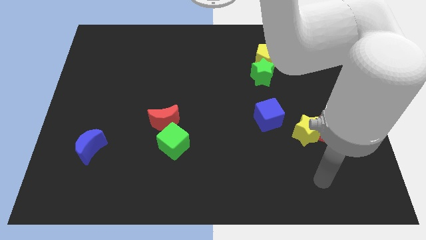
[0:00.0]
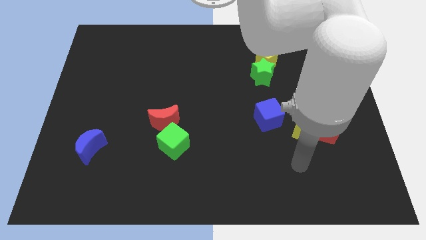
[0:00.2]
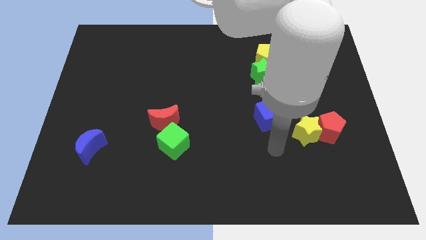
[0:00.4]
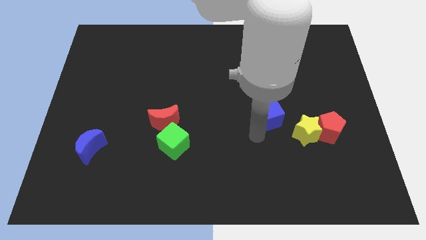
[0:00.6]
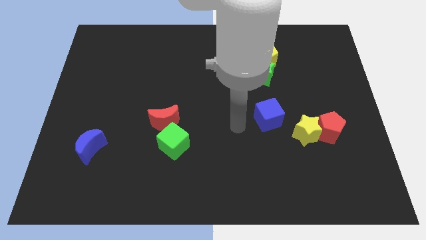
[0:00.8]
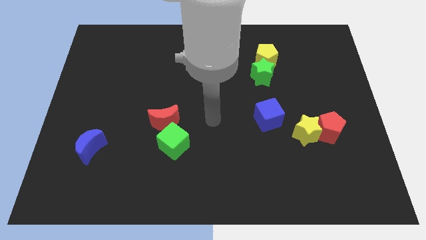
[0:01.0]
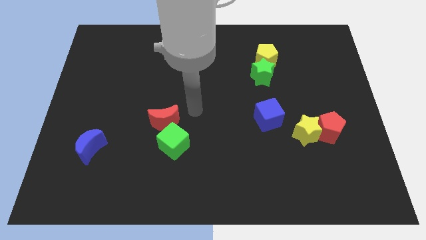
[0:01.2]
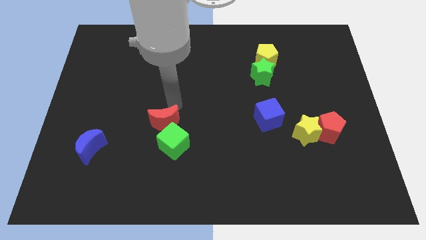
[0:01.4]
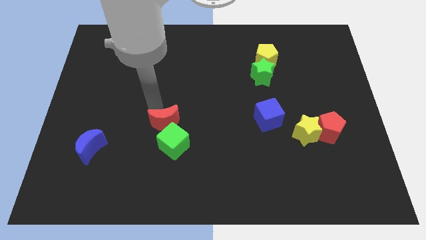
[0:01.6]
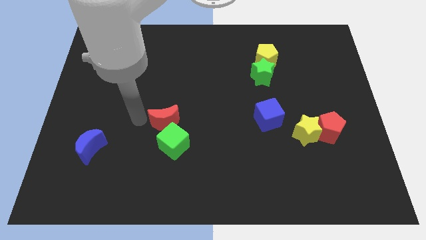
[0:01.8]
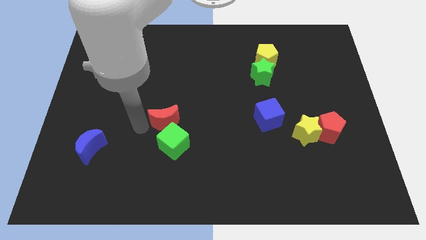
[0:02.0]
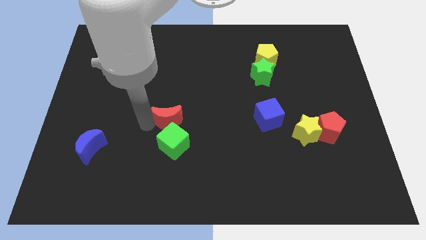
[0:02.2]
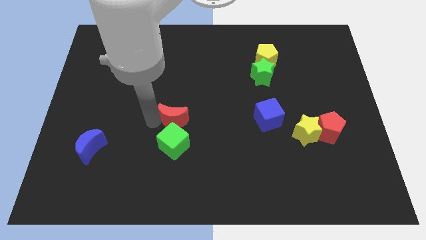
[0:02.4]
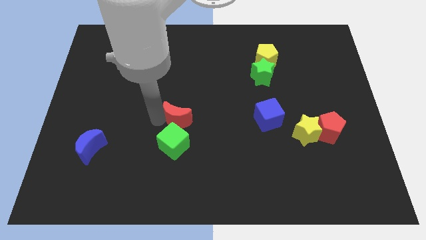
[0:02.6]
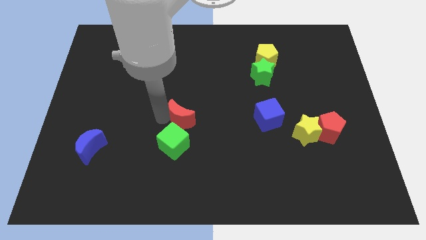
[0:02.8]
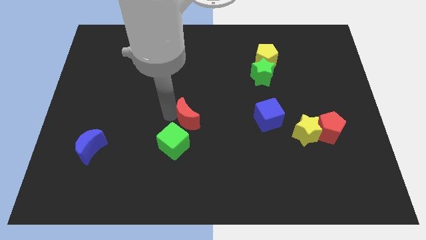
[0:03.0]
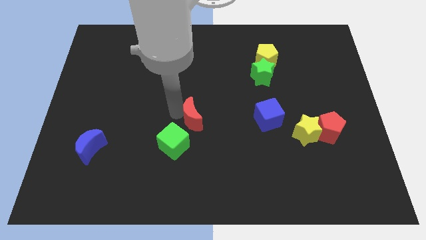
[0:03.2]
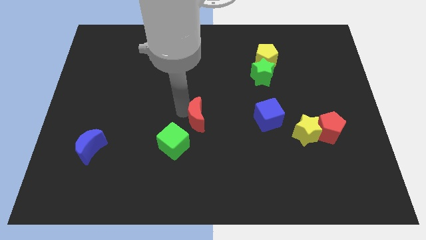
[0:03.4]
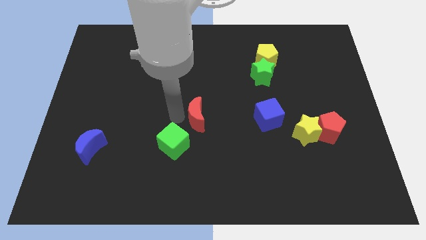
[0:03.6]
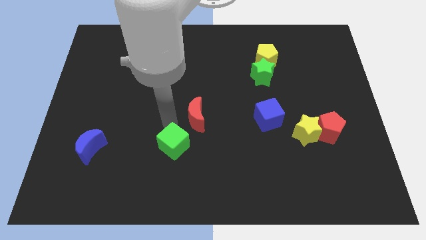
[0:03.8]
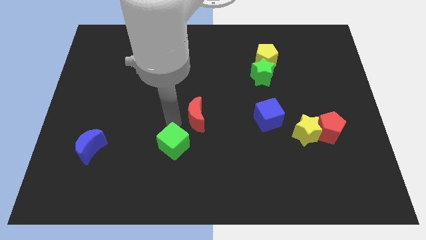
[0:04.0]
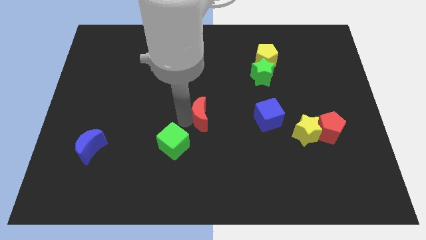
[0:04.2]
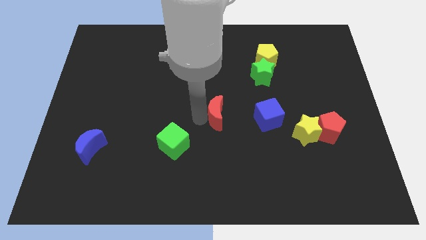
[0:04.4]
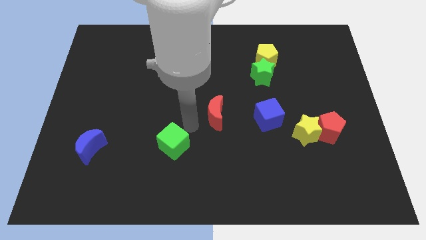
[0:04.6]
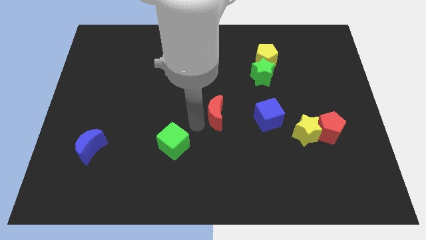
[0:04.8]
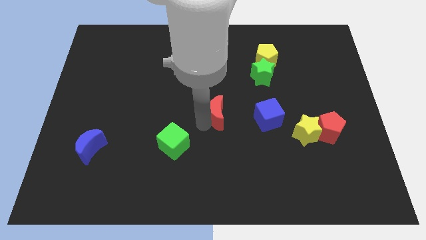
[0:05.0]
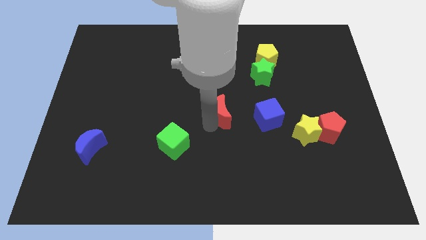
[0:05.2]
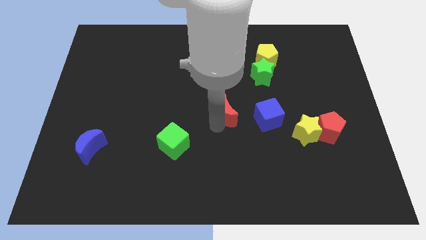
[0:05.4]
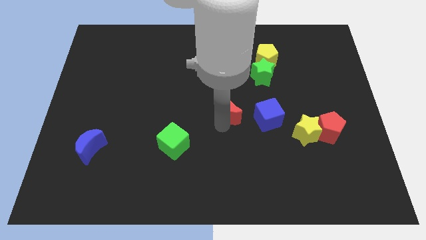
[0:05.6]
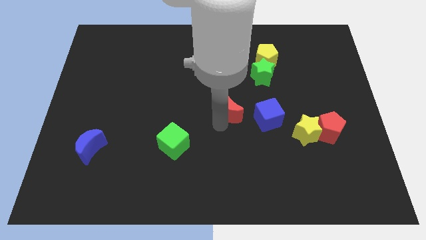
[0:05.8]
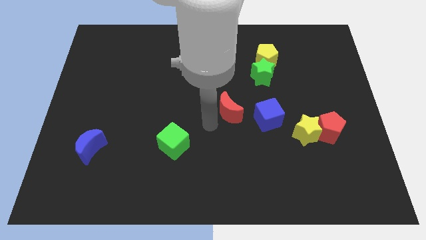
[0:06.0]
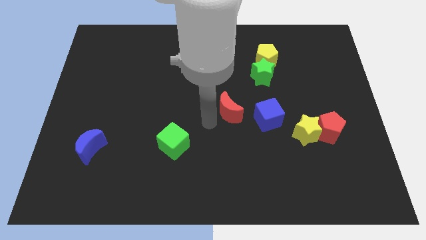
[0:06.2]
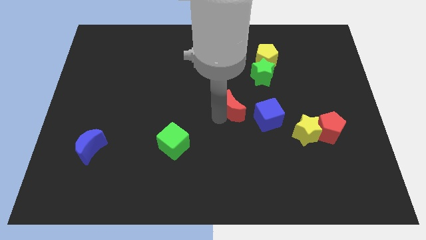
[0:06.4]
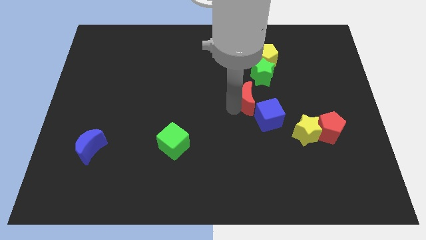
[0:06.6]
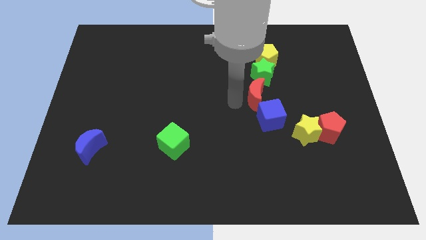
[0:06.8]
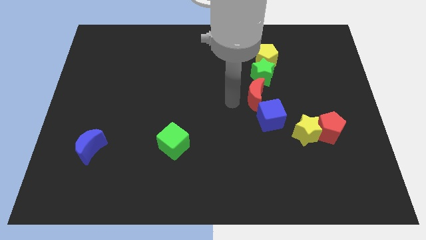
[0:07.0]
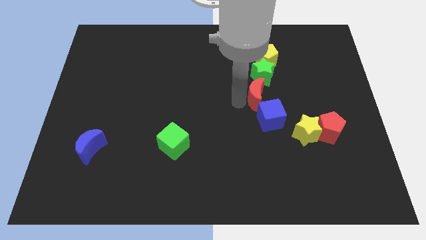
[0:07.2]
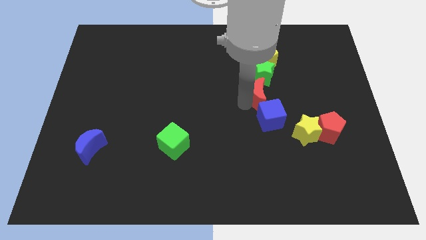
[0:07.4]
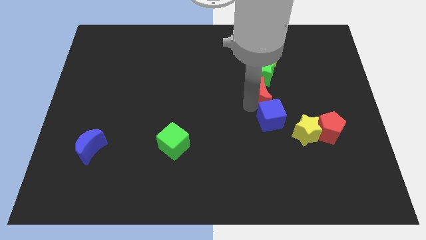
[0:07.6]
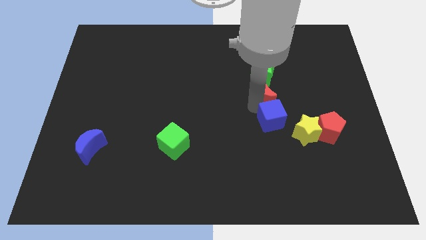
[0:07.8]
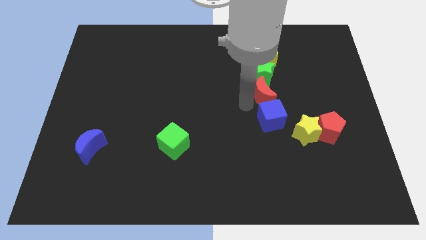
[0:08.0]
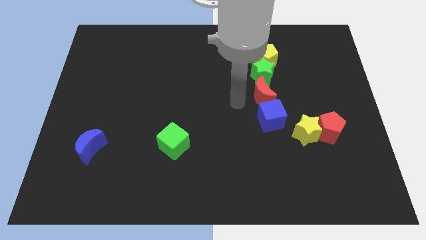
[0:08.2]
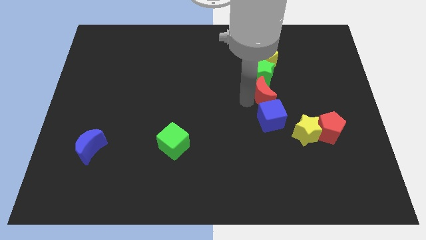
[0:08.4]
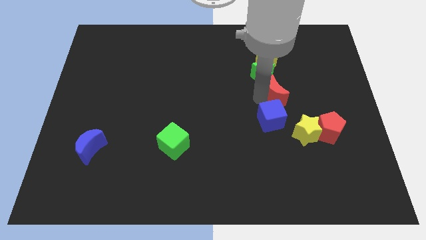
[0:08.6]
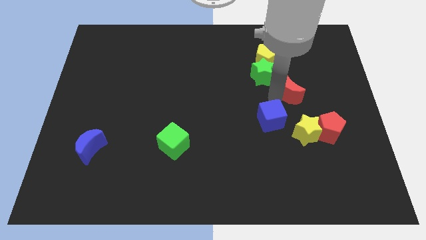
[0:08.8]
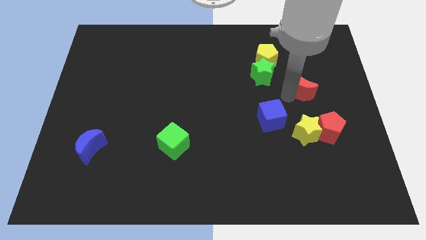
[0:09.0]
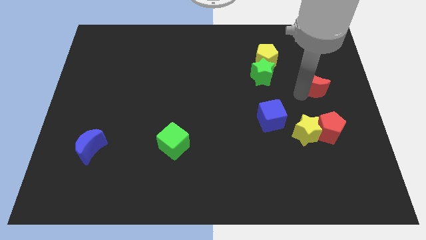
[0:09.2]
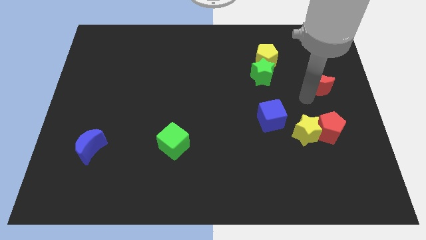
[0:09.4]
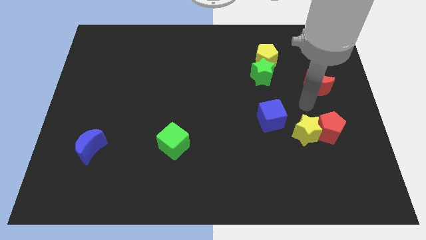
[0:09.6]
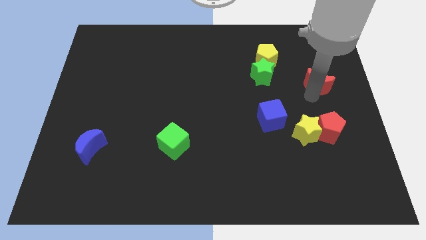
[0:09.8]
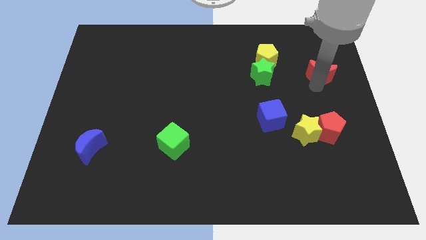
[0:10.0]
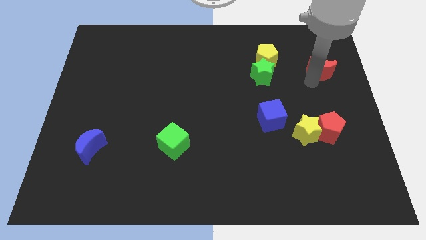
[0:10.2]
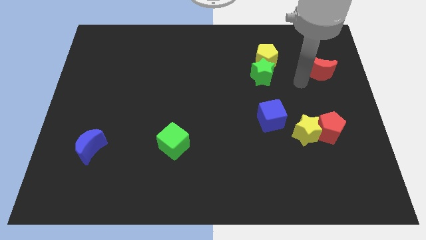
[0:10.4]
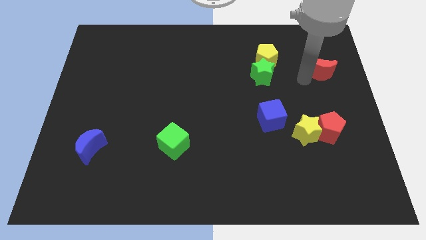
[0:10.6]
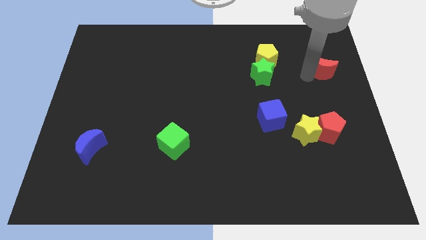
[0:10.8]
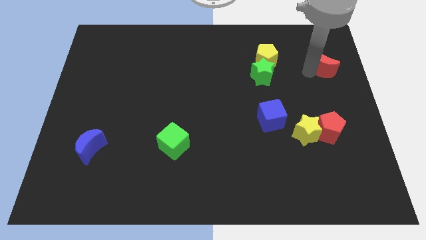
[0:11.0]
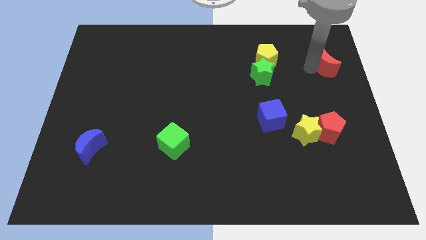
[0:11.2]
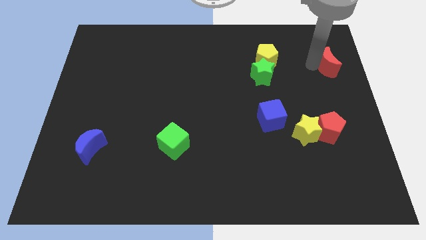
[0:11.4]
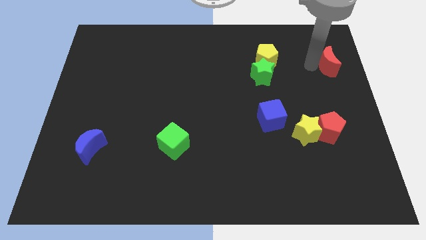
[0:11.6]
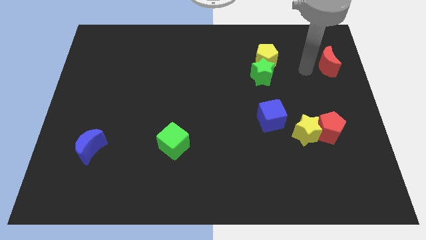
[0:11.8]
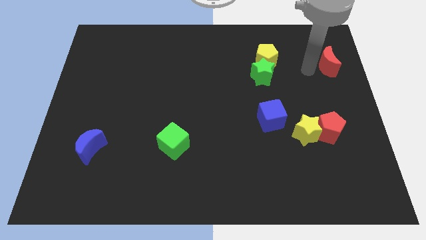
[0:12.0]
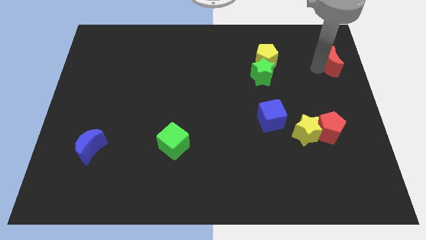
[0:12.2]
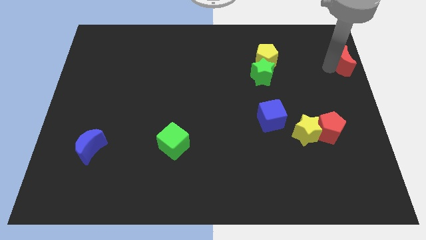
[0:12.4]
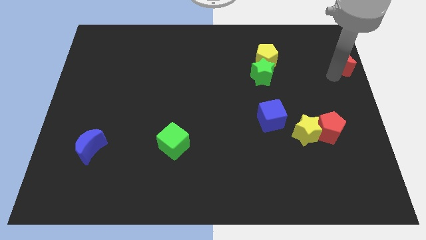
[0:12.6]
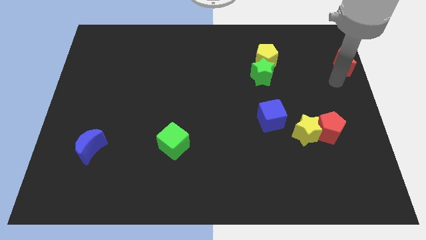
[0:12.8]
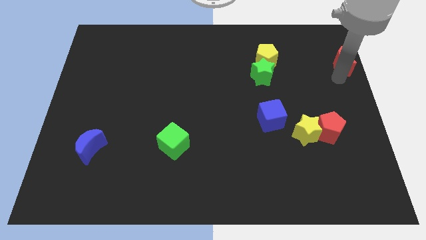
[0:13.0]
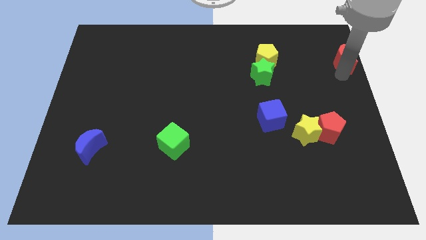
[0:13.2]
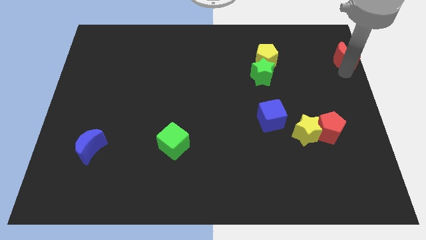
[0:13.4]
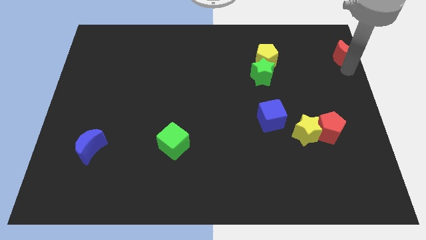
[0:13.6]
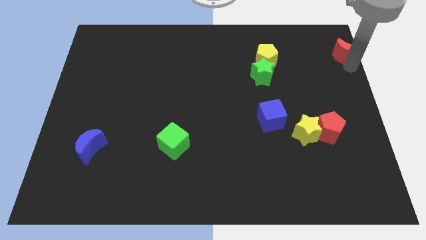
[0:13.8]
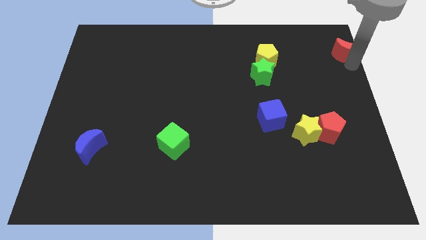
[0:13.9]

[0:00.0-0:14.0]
push the red moon to the top right
